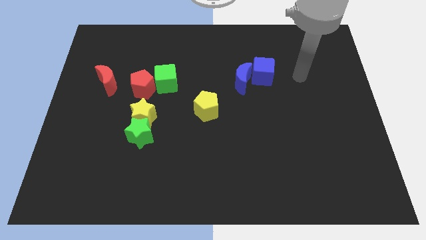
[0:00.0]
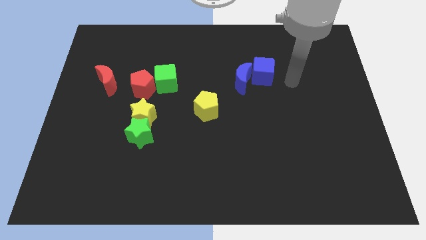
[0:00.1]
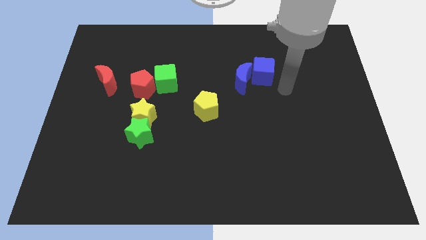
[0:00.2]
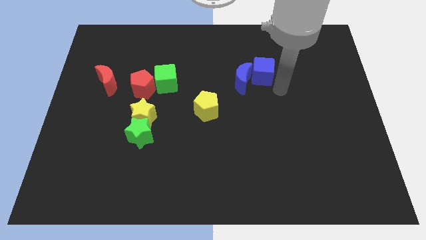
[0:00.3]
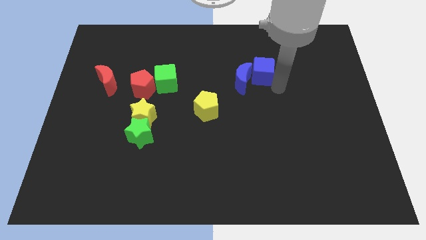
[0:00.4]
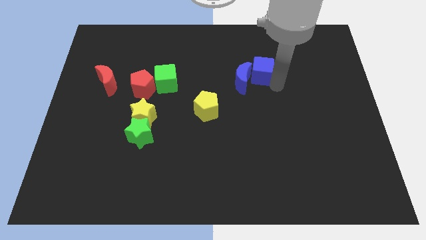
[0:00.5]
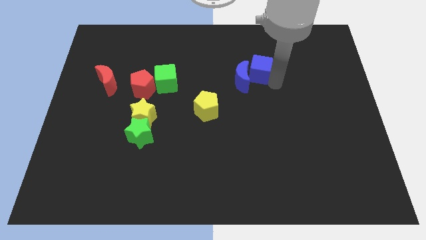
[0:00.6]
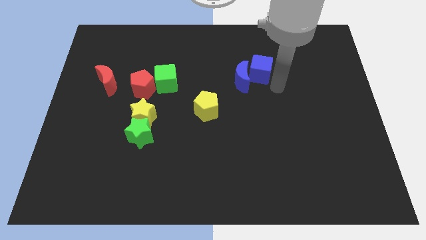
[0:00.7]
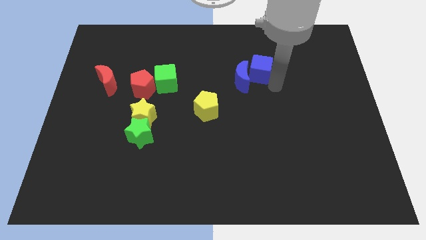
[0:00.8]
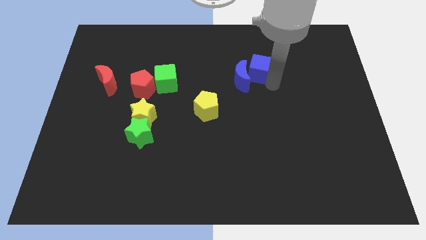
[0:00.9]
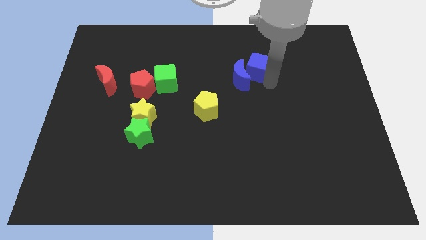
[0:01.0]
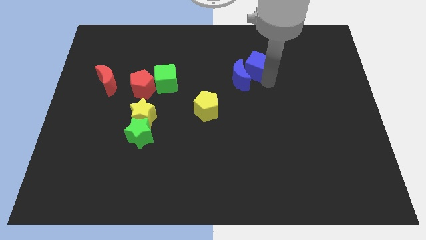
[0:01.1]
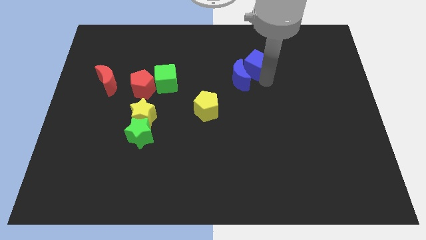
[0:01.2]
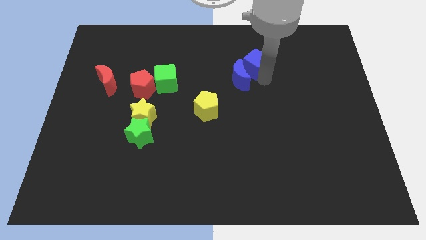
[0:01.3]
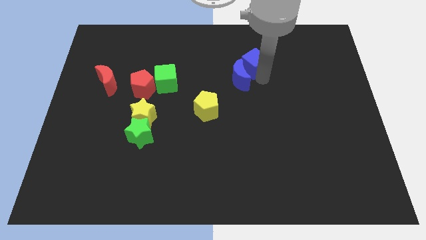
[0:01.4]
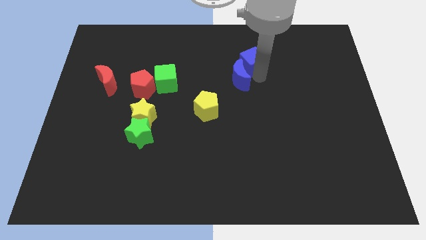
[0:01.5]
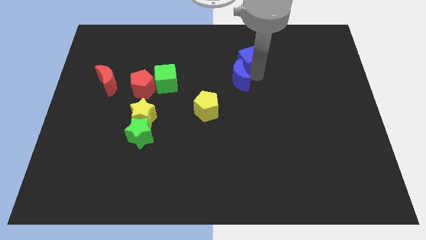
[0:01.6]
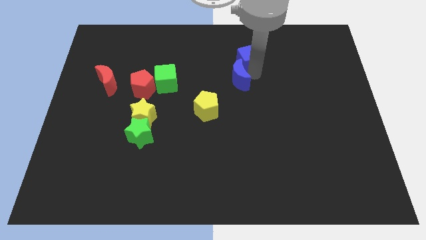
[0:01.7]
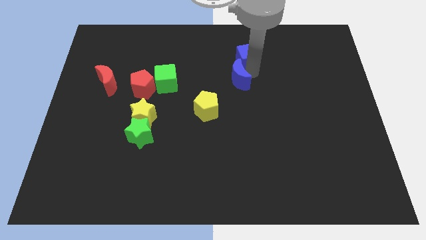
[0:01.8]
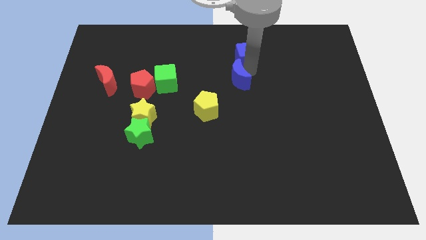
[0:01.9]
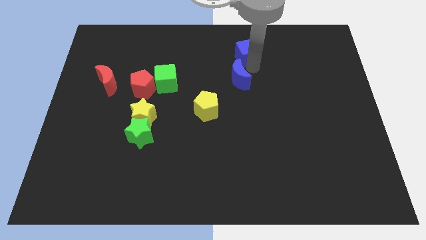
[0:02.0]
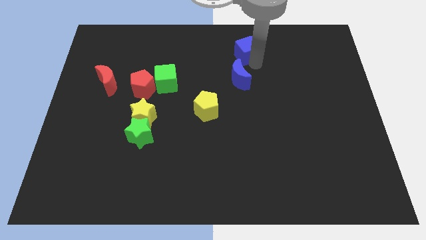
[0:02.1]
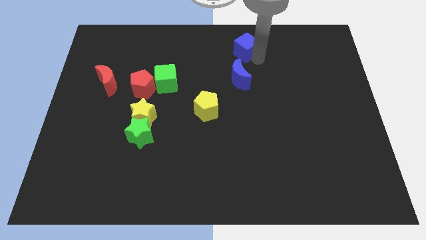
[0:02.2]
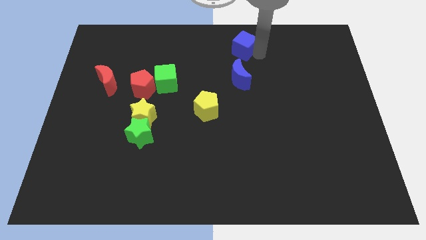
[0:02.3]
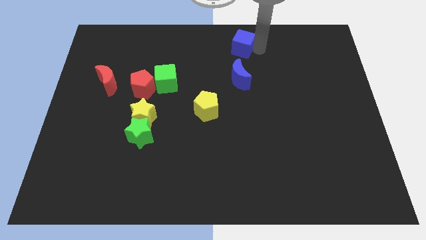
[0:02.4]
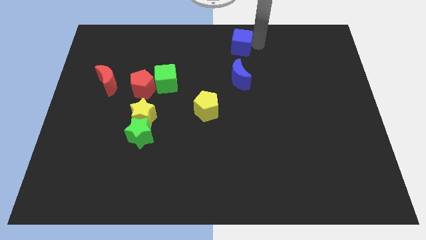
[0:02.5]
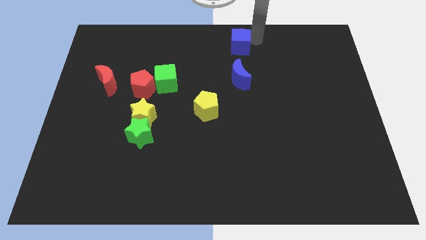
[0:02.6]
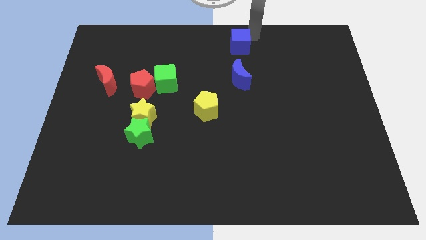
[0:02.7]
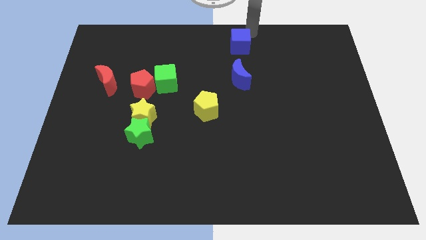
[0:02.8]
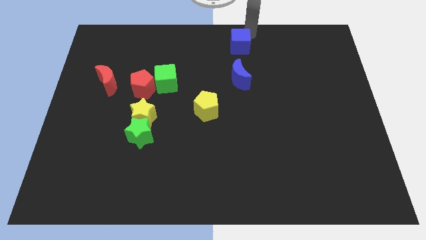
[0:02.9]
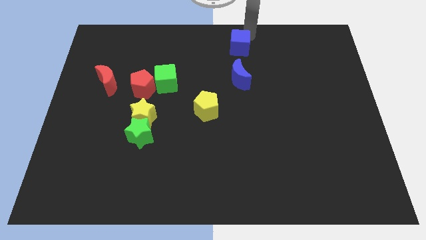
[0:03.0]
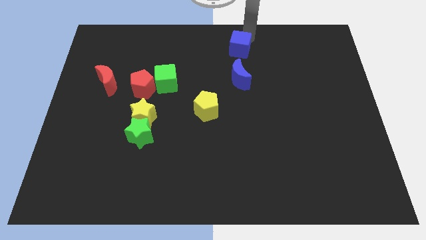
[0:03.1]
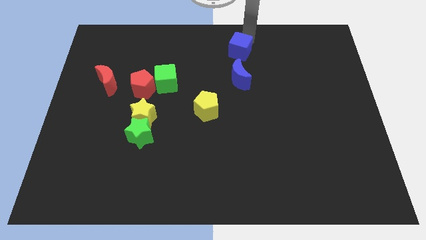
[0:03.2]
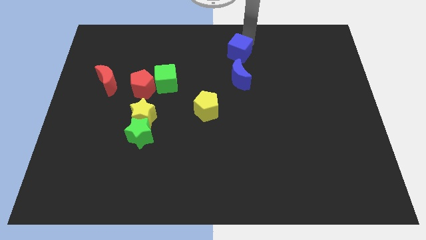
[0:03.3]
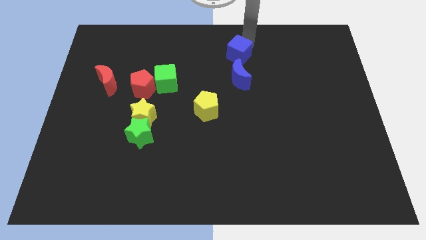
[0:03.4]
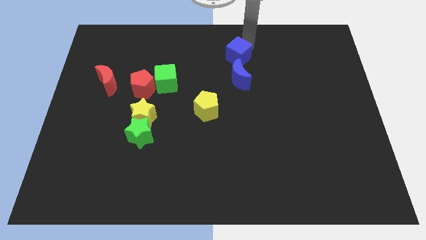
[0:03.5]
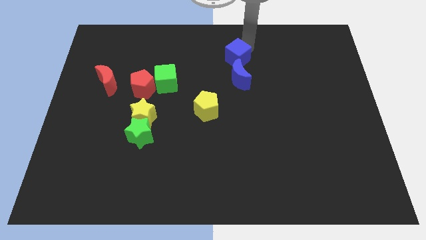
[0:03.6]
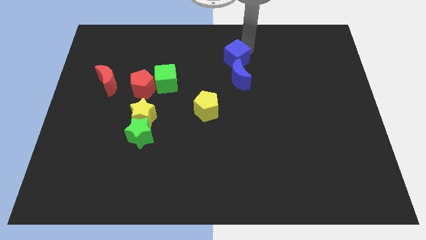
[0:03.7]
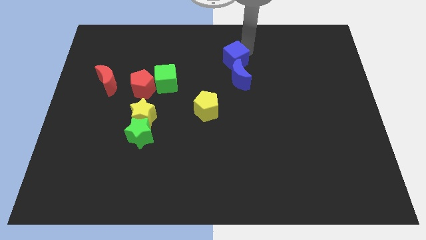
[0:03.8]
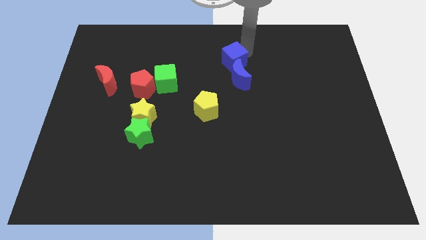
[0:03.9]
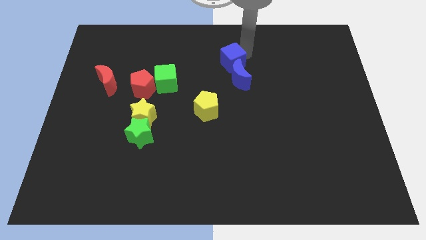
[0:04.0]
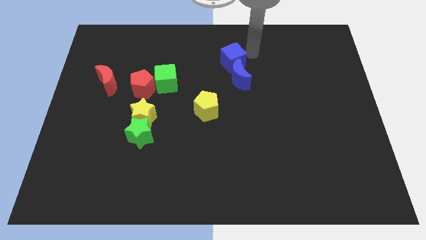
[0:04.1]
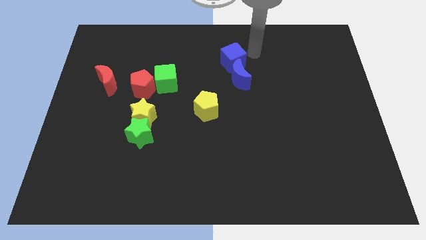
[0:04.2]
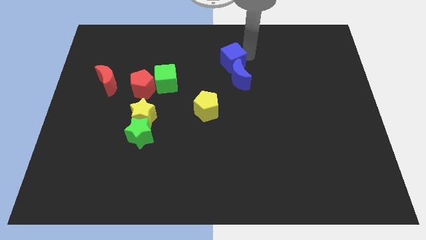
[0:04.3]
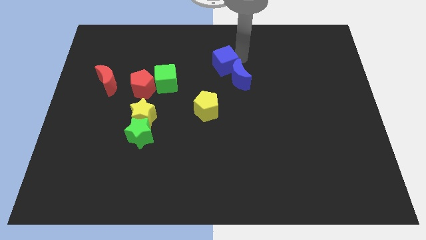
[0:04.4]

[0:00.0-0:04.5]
slightly slide the blue cube to the left

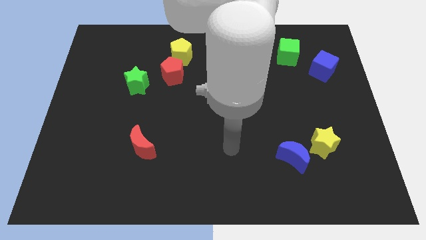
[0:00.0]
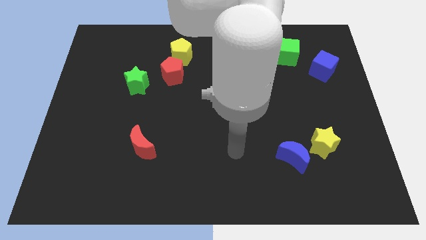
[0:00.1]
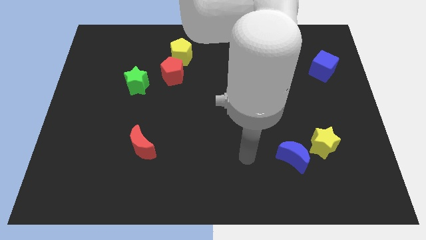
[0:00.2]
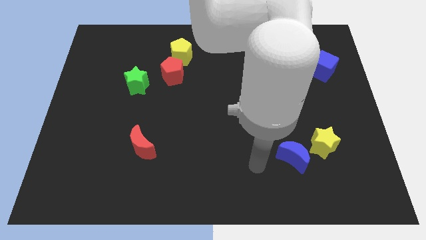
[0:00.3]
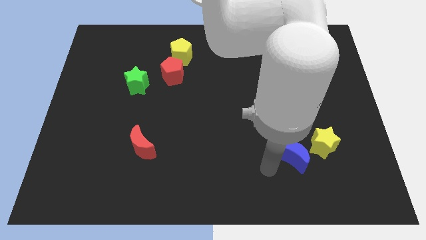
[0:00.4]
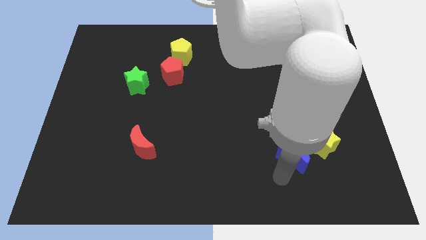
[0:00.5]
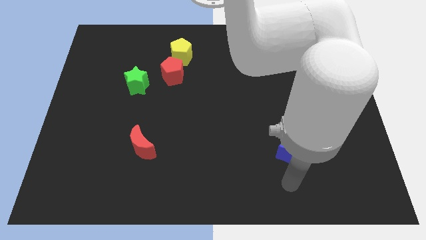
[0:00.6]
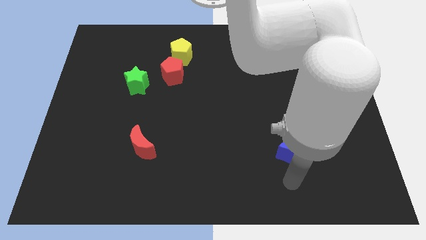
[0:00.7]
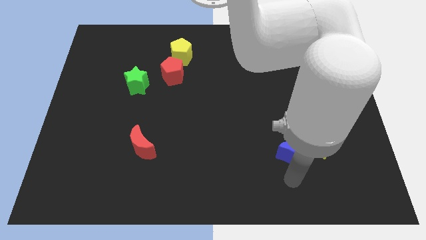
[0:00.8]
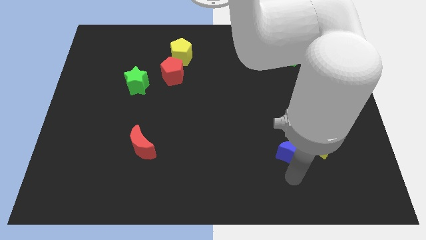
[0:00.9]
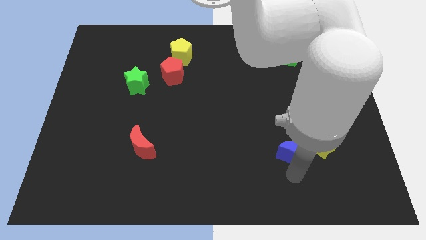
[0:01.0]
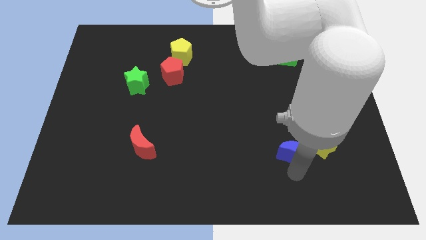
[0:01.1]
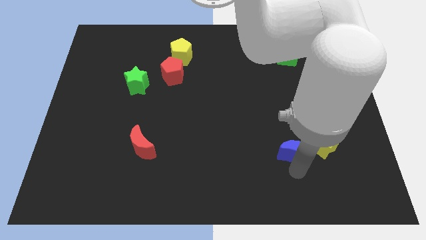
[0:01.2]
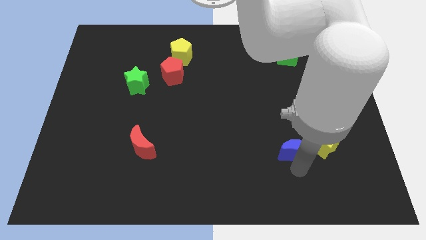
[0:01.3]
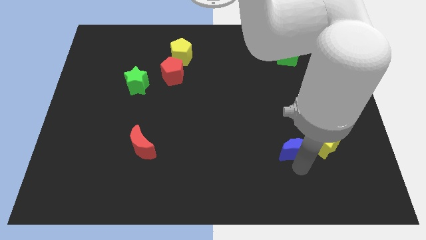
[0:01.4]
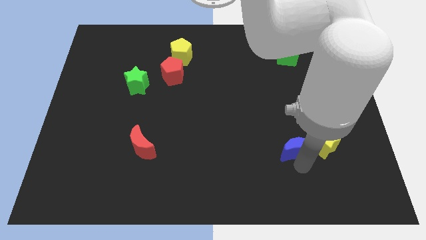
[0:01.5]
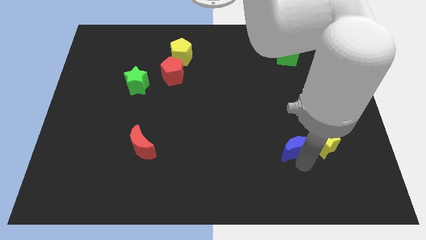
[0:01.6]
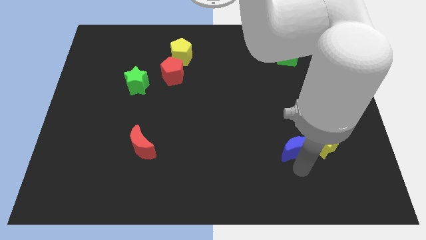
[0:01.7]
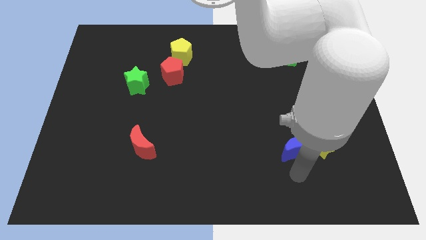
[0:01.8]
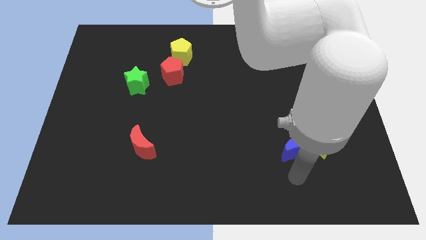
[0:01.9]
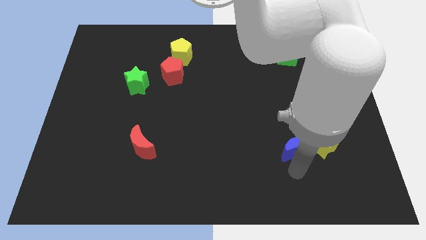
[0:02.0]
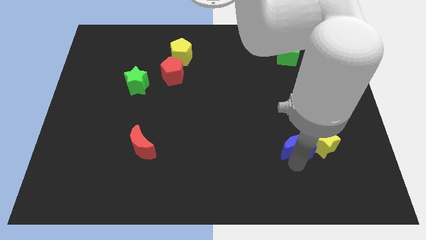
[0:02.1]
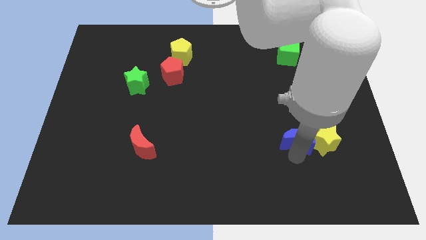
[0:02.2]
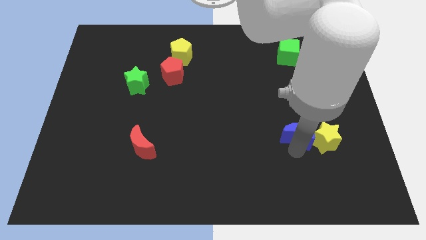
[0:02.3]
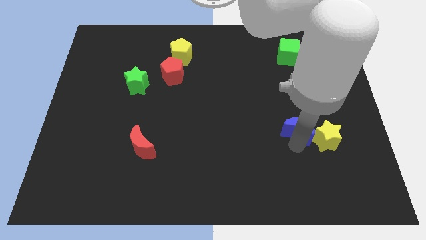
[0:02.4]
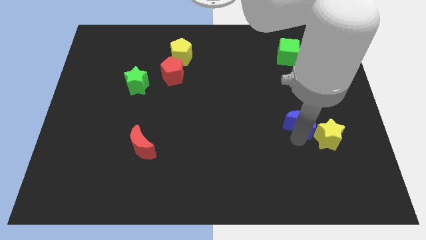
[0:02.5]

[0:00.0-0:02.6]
push the blue moon a little bit up

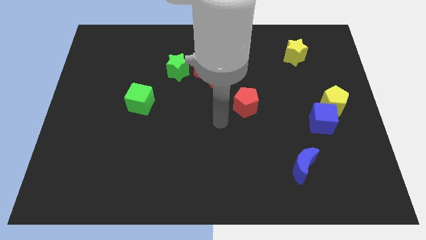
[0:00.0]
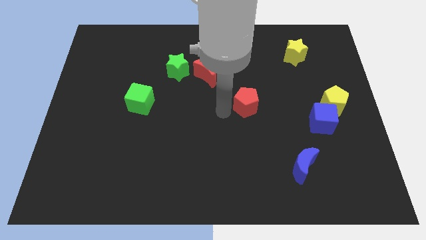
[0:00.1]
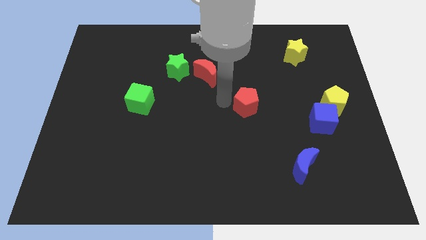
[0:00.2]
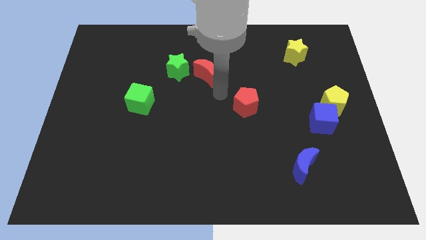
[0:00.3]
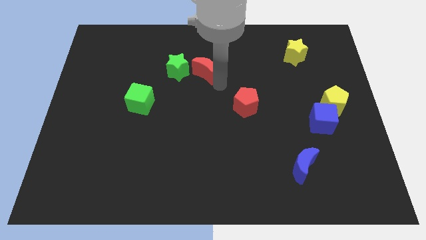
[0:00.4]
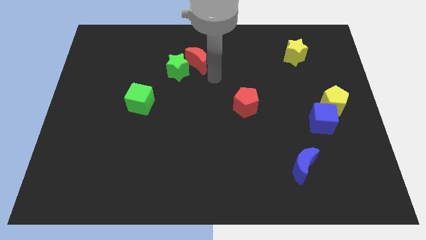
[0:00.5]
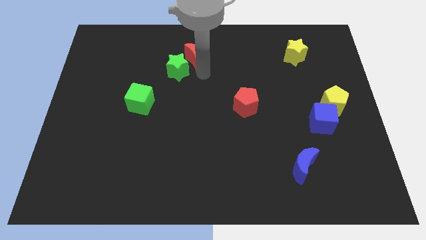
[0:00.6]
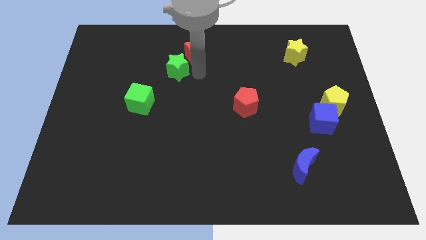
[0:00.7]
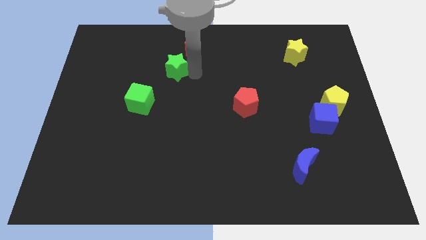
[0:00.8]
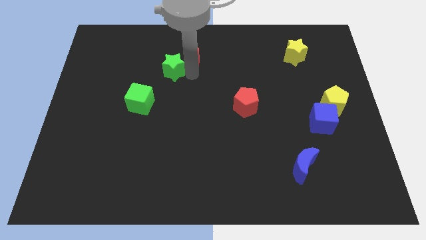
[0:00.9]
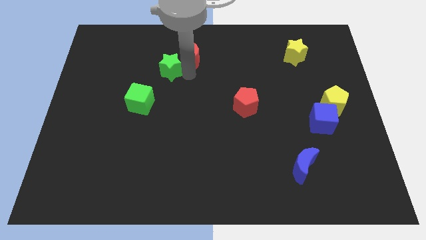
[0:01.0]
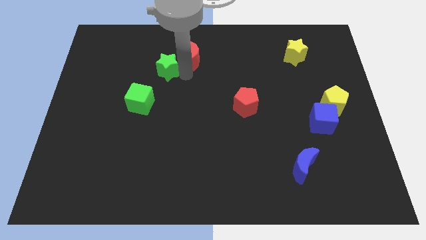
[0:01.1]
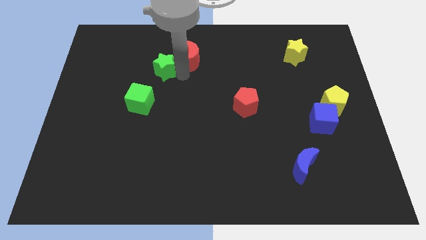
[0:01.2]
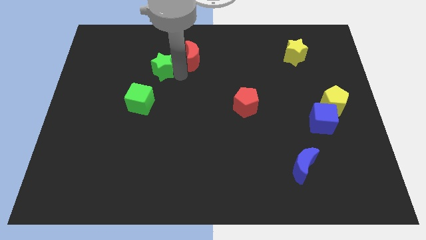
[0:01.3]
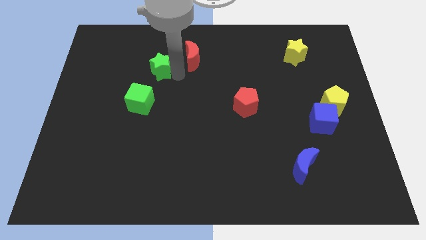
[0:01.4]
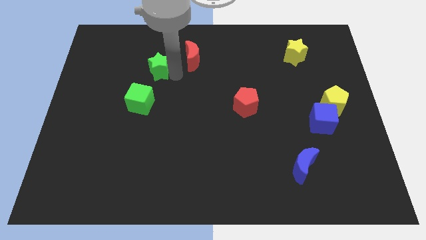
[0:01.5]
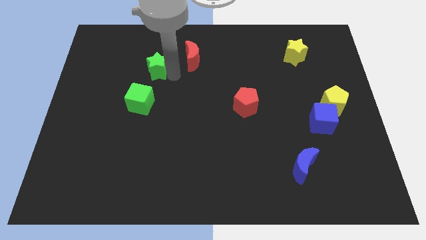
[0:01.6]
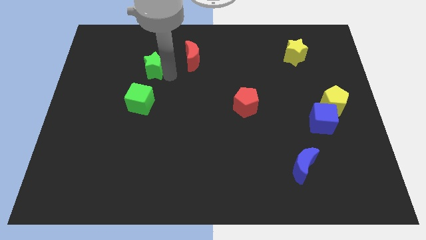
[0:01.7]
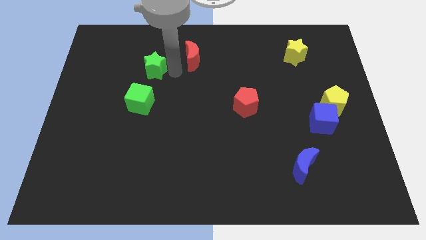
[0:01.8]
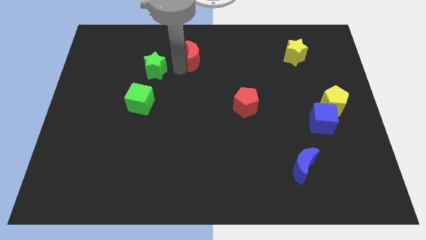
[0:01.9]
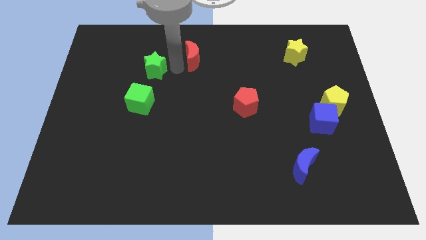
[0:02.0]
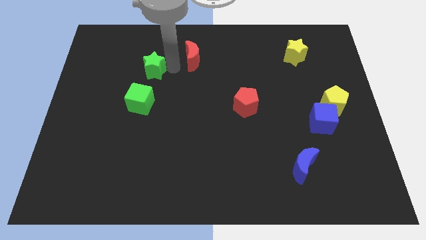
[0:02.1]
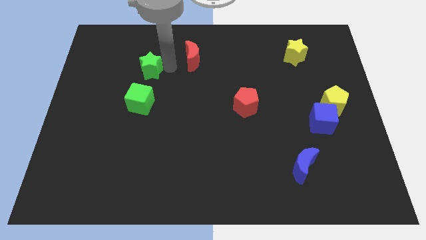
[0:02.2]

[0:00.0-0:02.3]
push the green star a bit to the left
